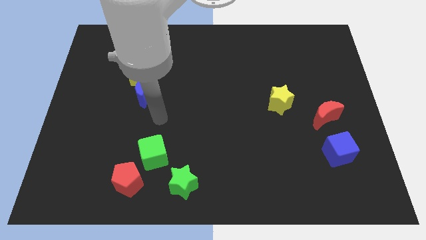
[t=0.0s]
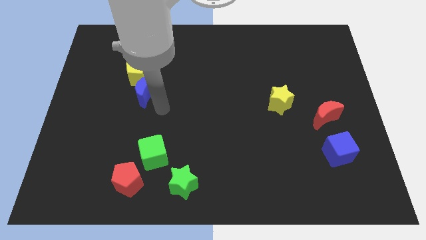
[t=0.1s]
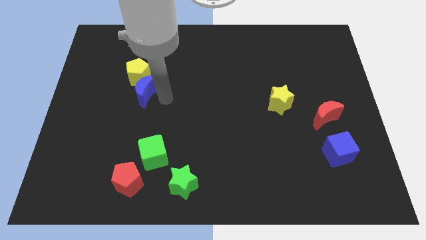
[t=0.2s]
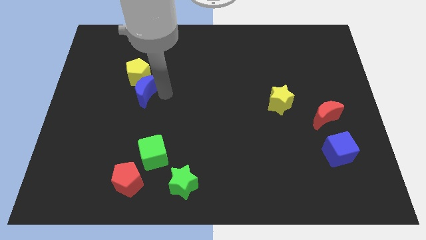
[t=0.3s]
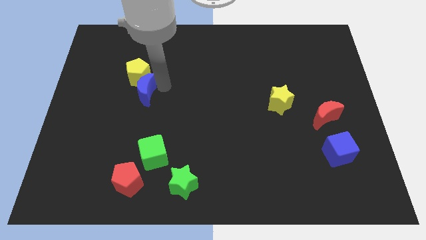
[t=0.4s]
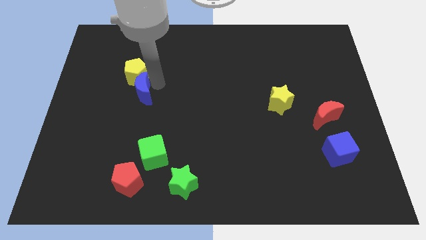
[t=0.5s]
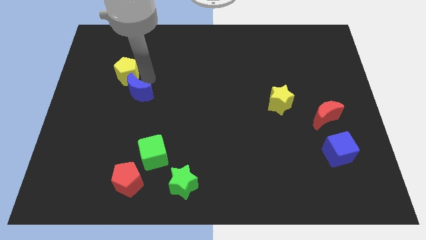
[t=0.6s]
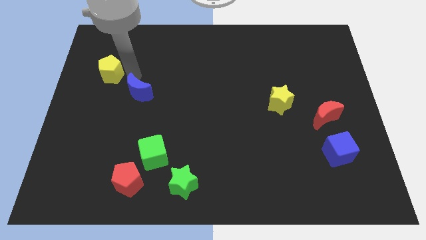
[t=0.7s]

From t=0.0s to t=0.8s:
pull the blue moon apart from the yellow pentagon

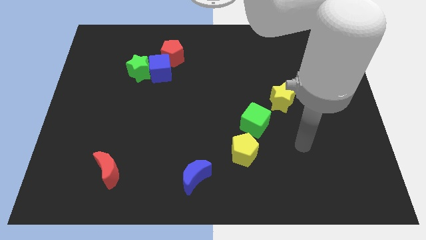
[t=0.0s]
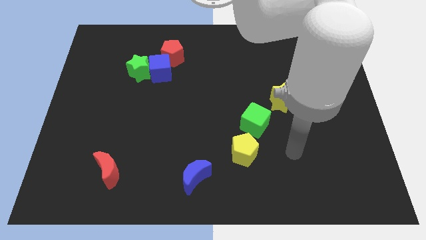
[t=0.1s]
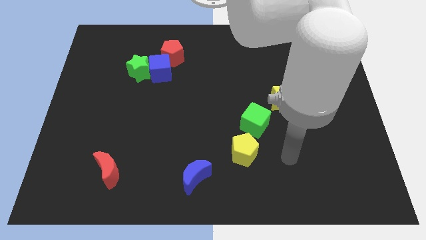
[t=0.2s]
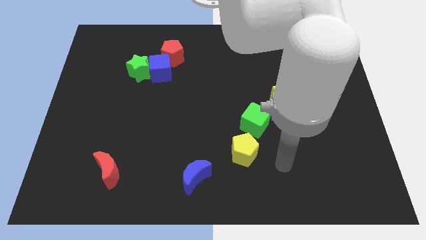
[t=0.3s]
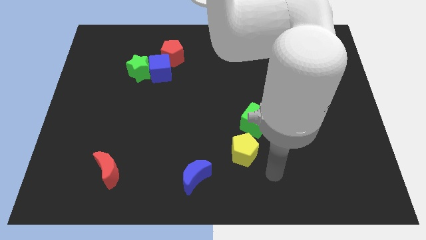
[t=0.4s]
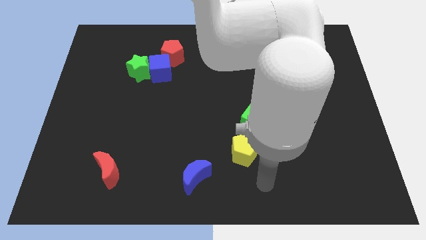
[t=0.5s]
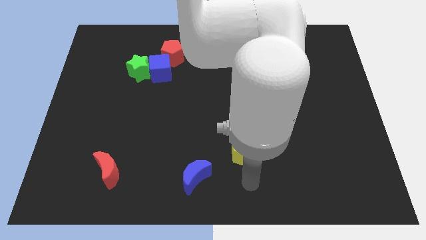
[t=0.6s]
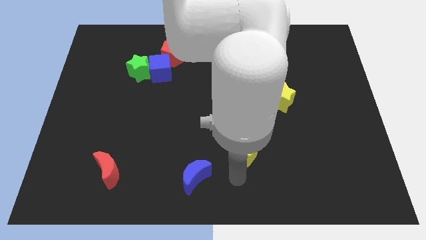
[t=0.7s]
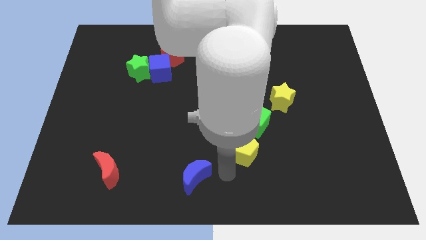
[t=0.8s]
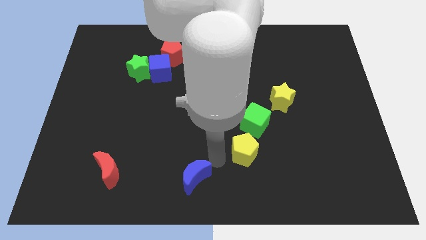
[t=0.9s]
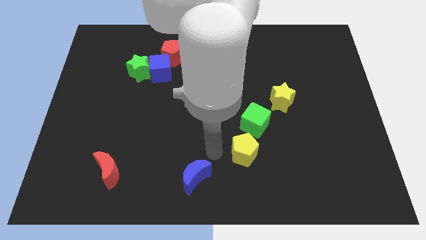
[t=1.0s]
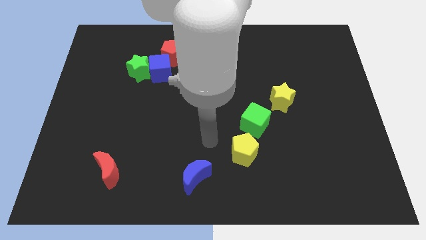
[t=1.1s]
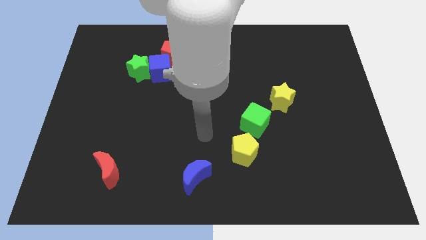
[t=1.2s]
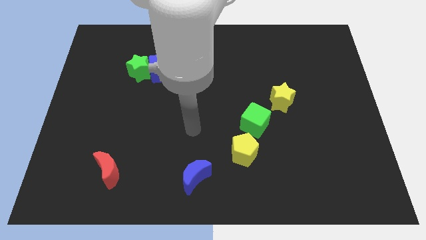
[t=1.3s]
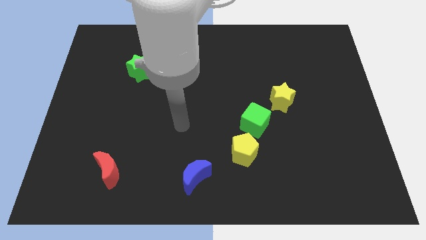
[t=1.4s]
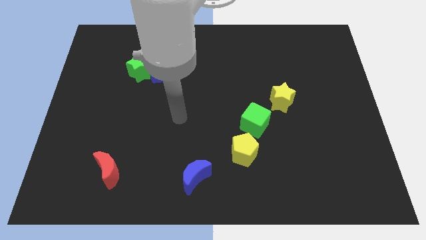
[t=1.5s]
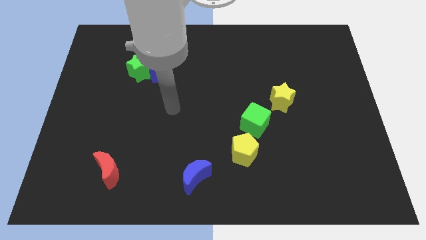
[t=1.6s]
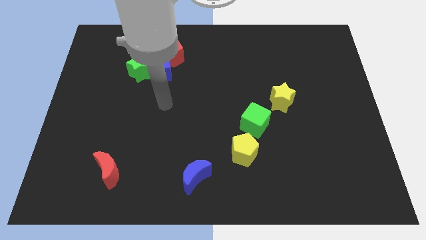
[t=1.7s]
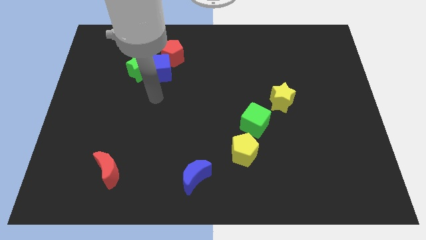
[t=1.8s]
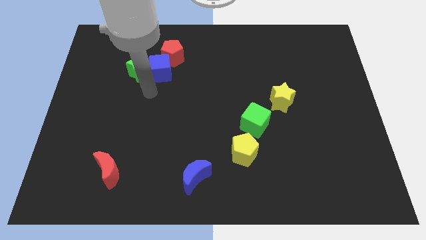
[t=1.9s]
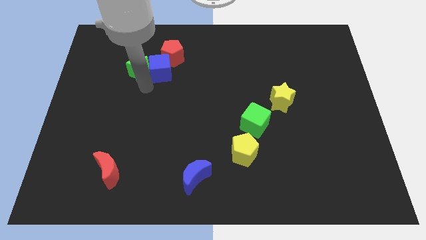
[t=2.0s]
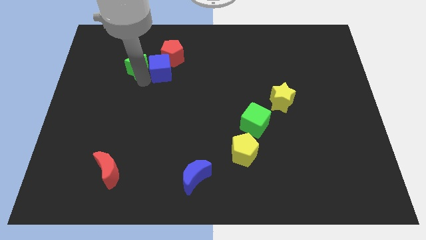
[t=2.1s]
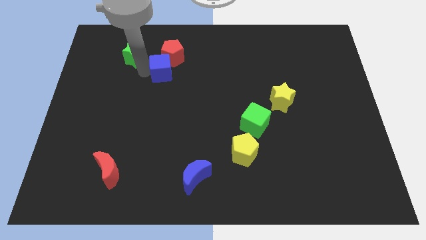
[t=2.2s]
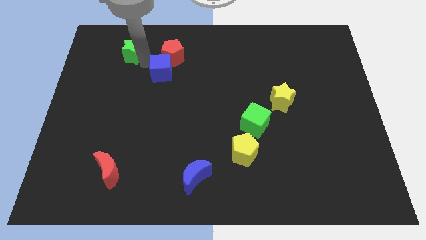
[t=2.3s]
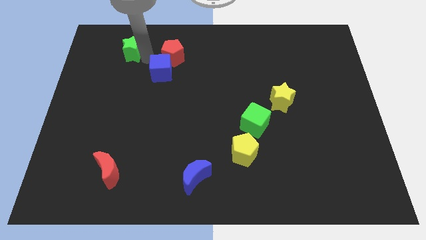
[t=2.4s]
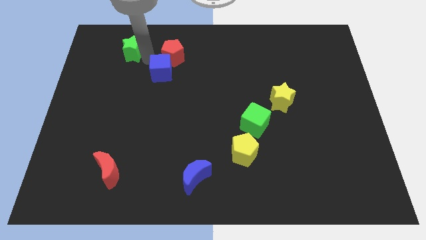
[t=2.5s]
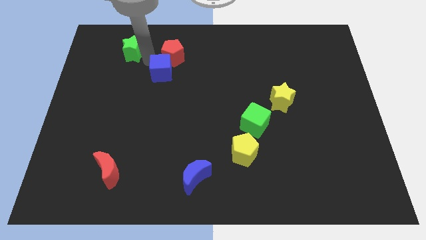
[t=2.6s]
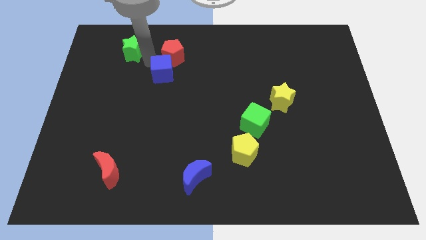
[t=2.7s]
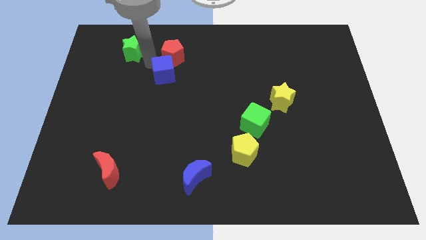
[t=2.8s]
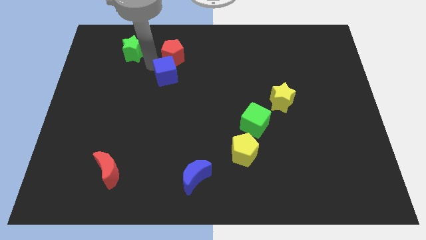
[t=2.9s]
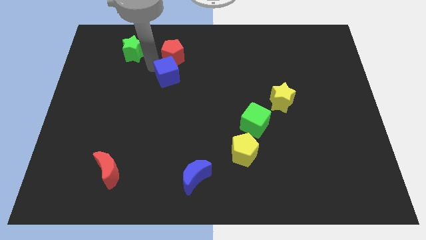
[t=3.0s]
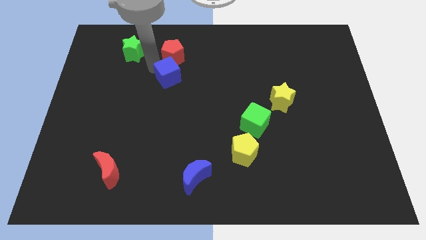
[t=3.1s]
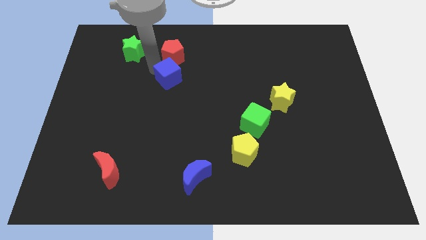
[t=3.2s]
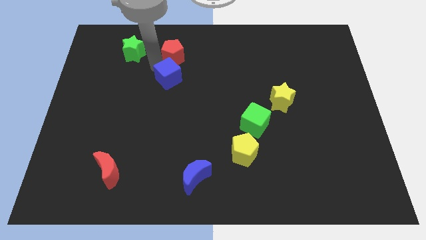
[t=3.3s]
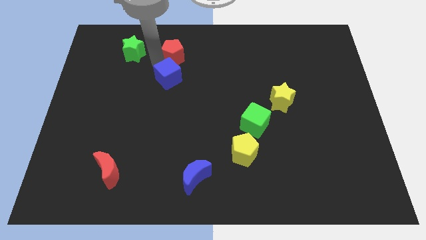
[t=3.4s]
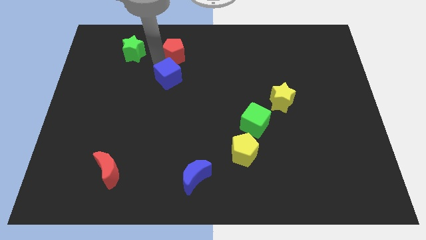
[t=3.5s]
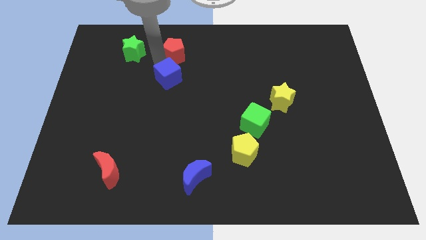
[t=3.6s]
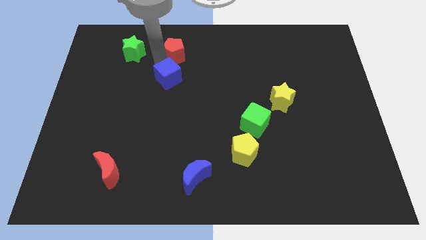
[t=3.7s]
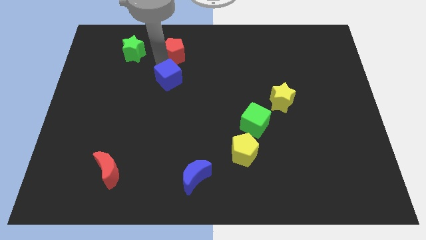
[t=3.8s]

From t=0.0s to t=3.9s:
pull the blue cube apart from the green star and red pentagon

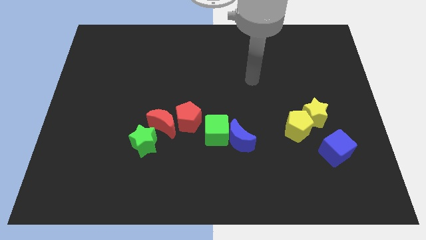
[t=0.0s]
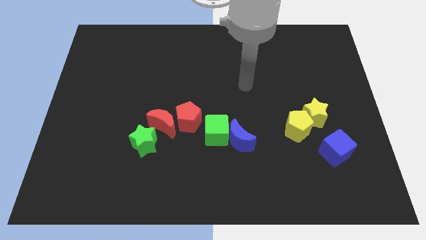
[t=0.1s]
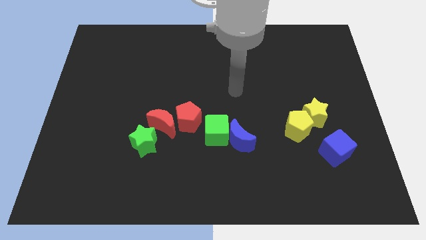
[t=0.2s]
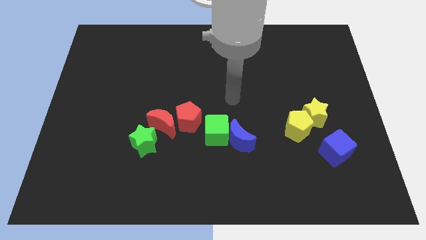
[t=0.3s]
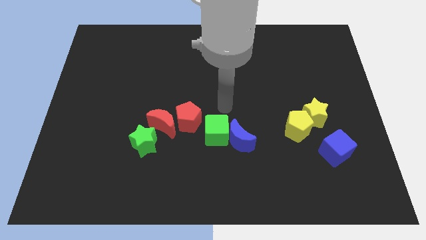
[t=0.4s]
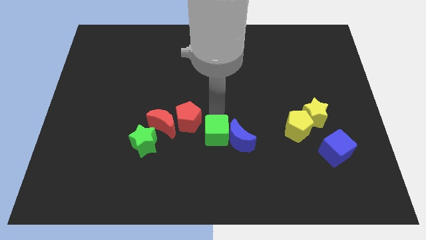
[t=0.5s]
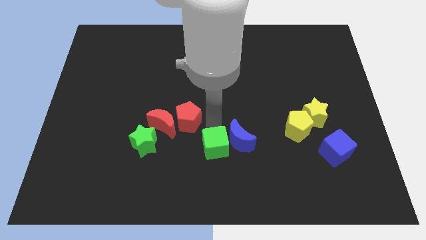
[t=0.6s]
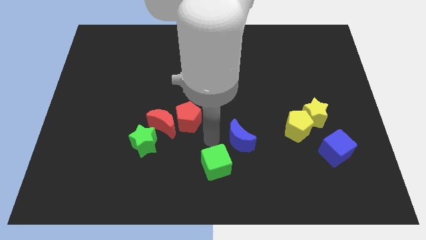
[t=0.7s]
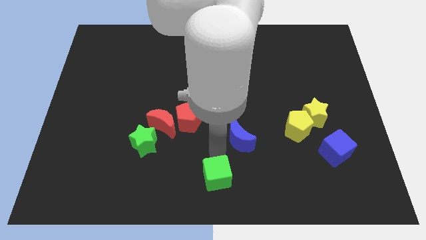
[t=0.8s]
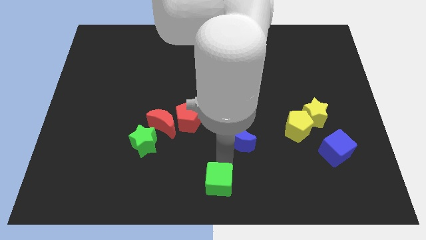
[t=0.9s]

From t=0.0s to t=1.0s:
pull the blue moon apart from the green cube

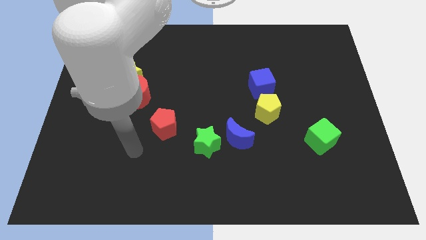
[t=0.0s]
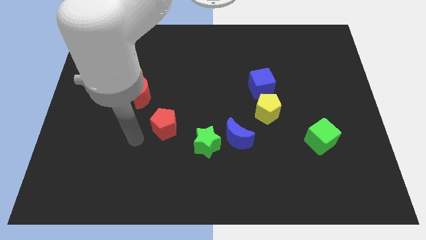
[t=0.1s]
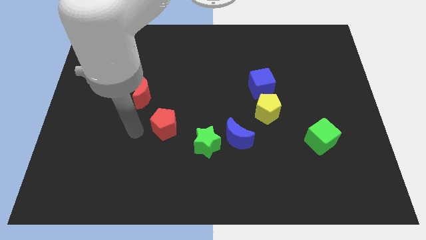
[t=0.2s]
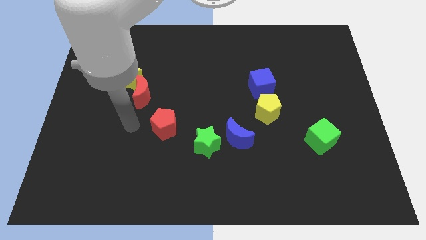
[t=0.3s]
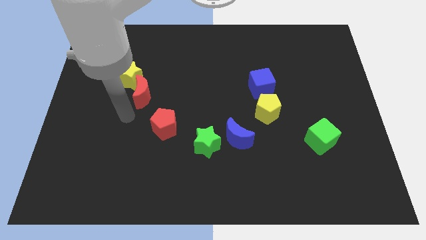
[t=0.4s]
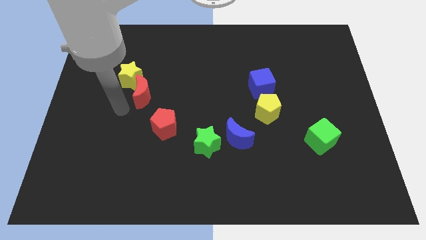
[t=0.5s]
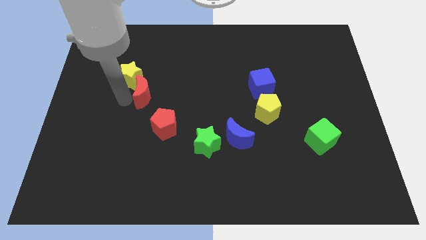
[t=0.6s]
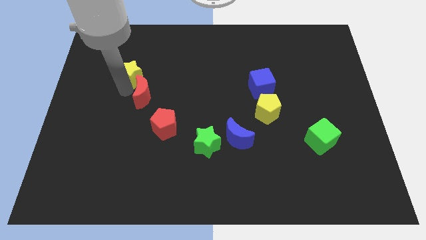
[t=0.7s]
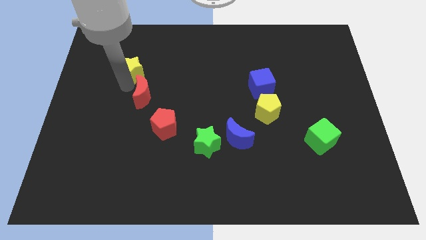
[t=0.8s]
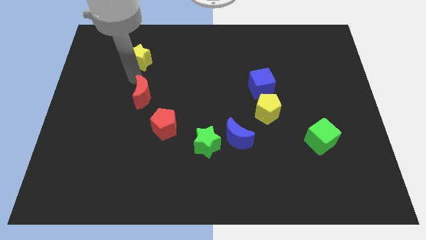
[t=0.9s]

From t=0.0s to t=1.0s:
separate the red moon from the yellow star

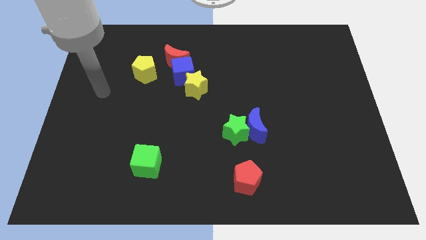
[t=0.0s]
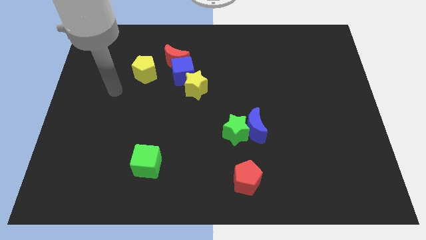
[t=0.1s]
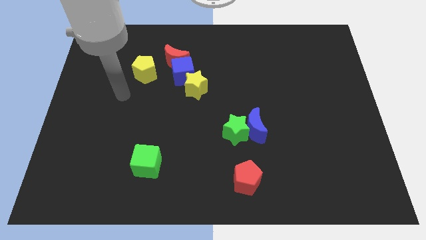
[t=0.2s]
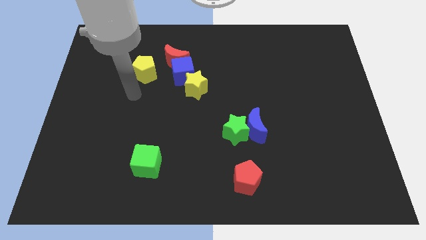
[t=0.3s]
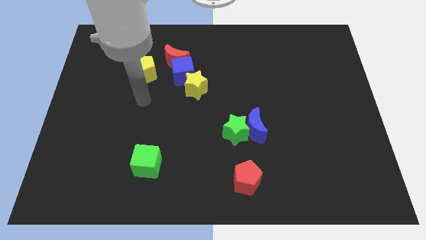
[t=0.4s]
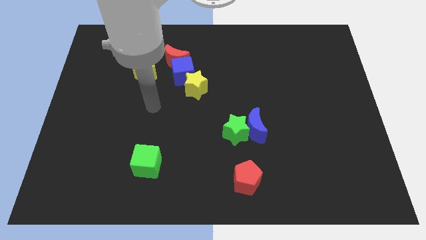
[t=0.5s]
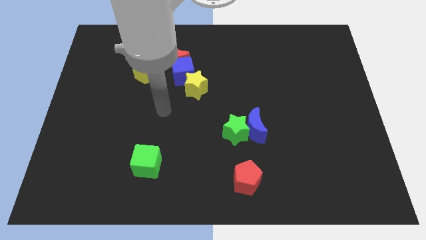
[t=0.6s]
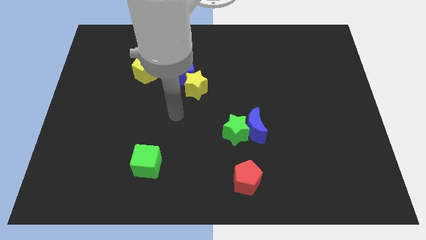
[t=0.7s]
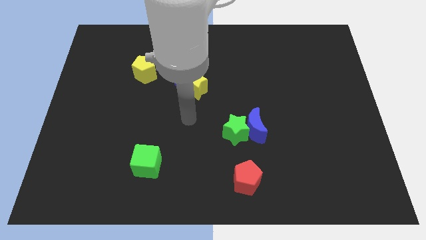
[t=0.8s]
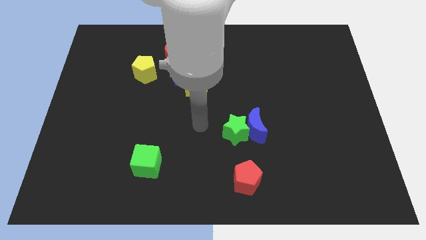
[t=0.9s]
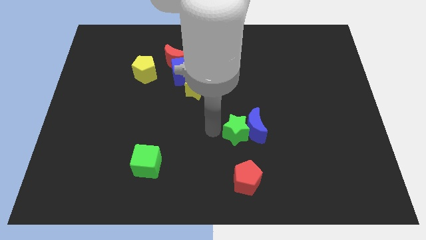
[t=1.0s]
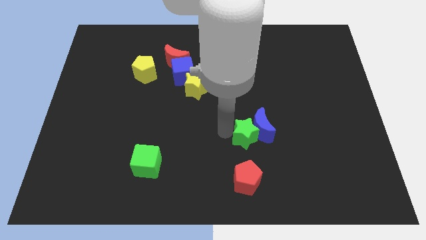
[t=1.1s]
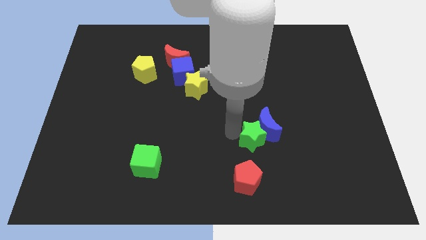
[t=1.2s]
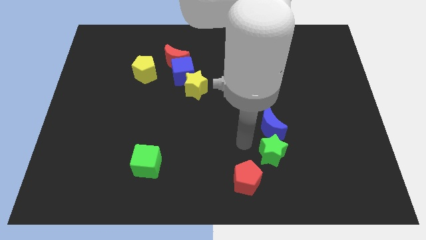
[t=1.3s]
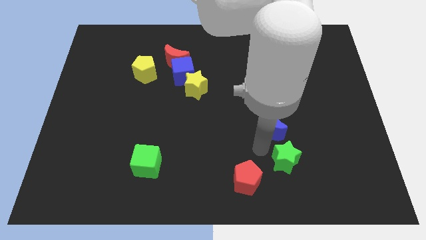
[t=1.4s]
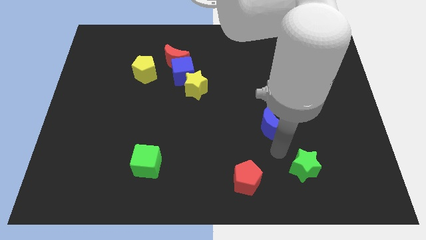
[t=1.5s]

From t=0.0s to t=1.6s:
move the blue moon away from the green star

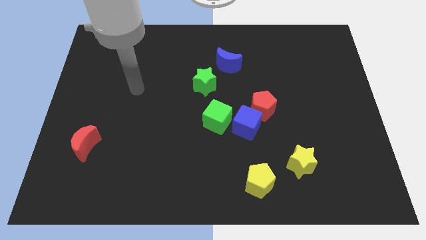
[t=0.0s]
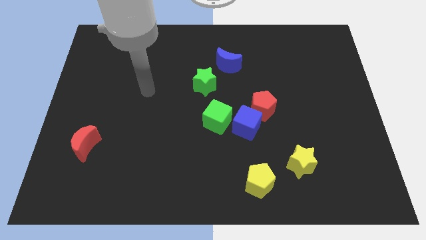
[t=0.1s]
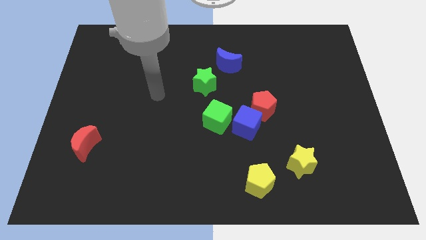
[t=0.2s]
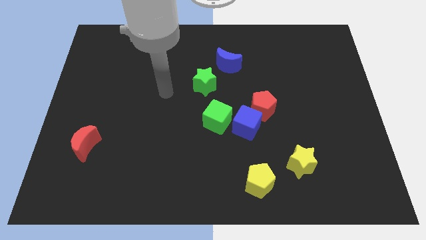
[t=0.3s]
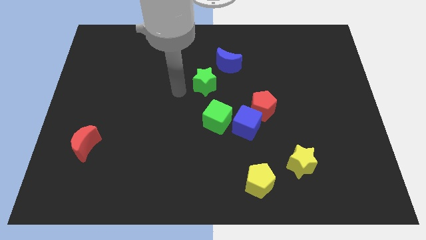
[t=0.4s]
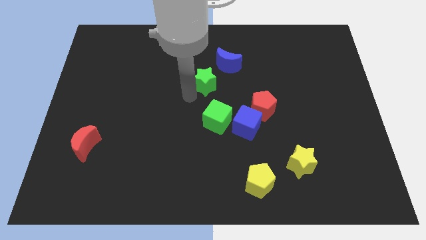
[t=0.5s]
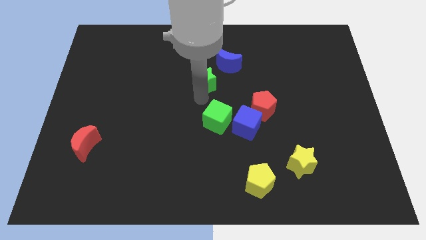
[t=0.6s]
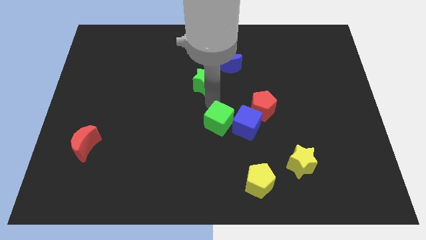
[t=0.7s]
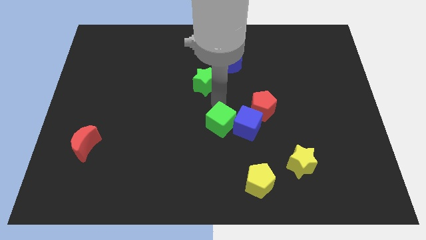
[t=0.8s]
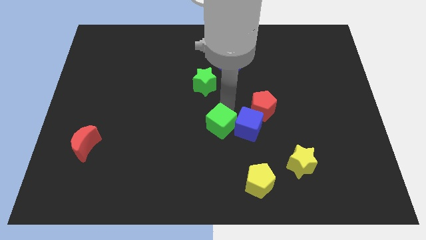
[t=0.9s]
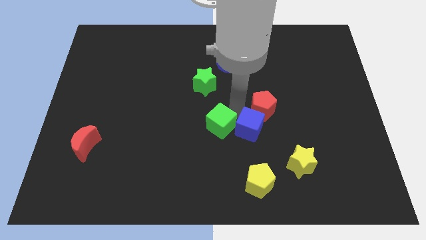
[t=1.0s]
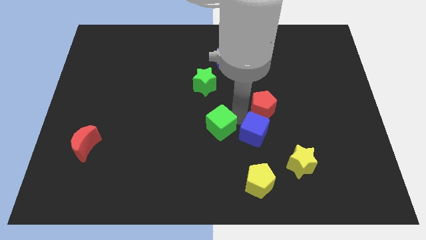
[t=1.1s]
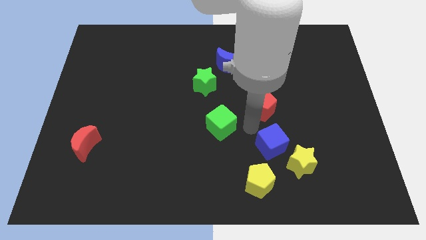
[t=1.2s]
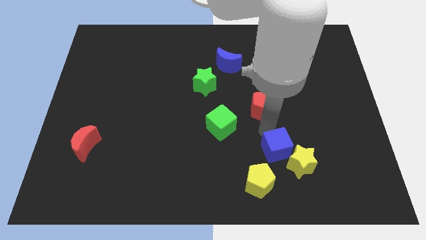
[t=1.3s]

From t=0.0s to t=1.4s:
move the red pentagon away from the blue cube
